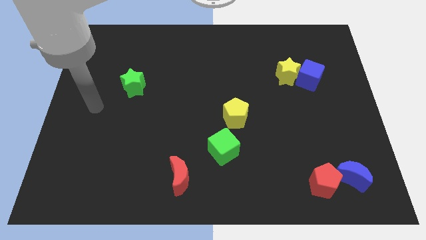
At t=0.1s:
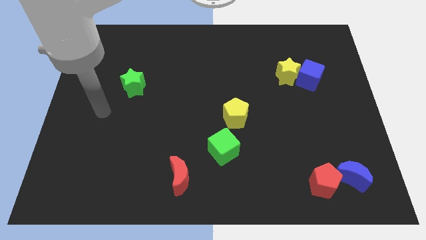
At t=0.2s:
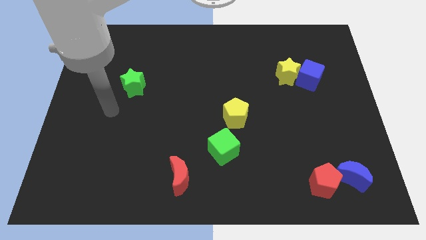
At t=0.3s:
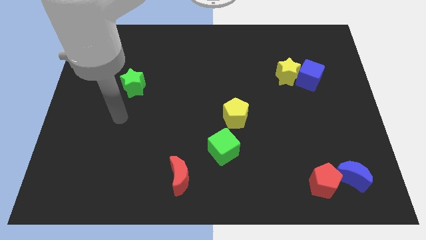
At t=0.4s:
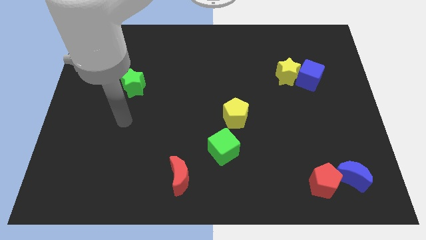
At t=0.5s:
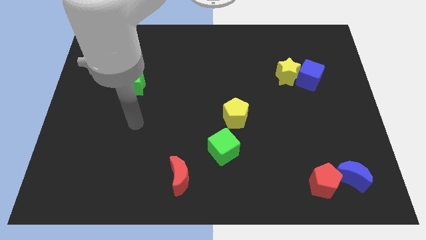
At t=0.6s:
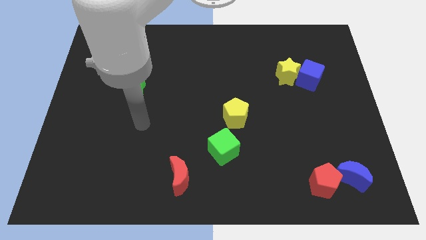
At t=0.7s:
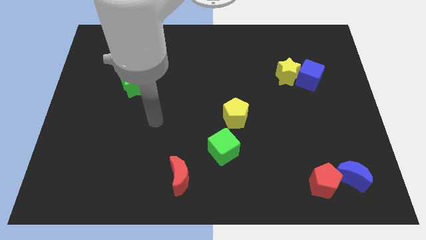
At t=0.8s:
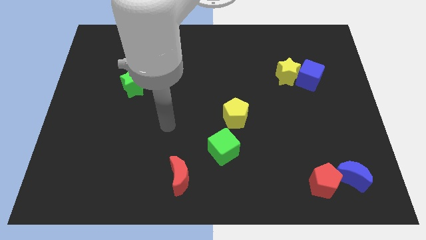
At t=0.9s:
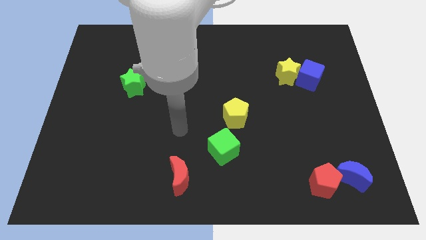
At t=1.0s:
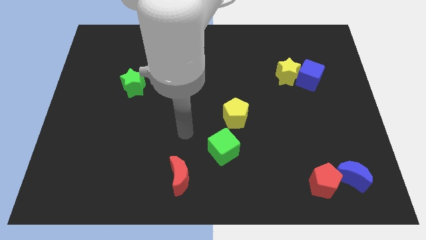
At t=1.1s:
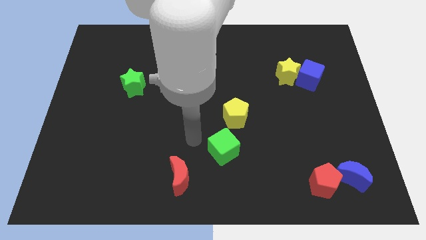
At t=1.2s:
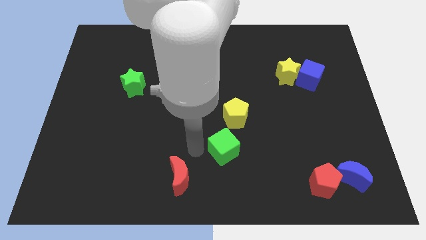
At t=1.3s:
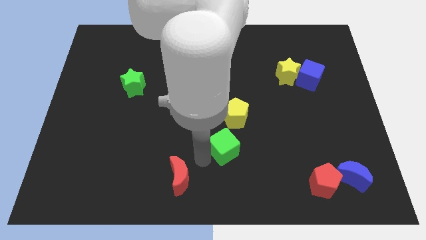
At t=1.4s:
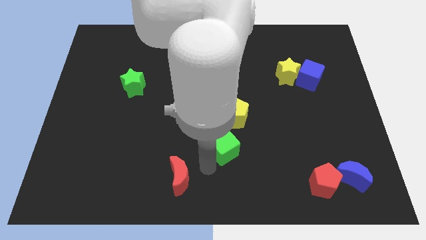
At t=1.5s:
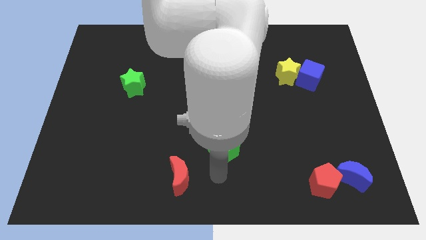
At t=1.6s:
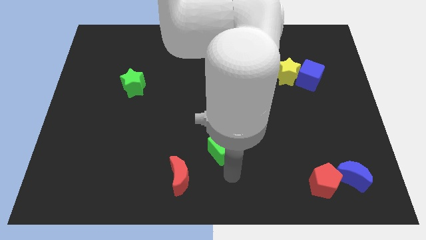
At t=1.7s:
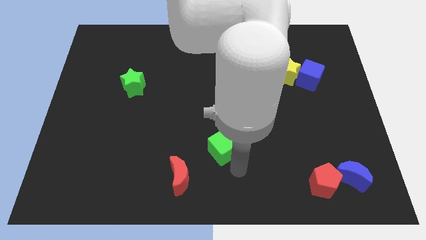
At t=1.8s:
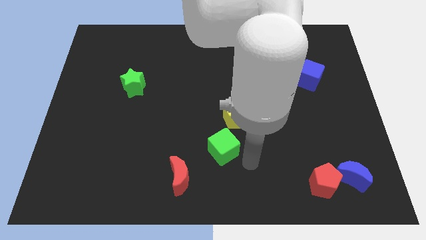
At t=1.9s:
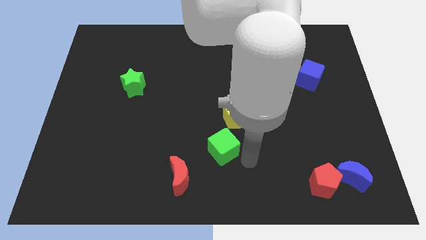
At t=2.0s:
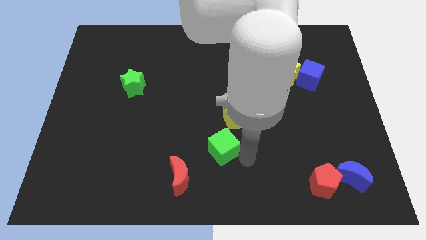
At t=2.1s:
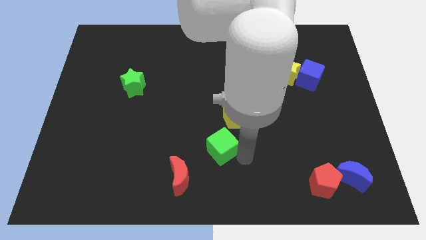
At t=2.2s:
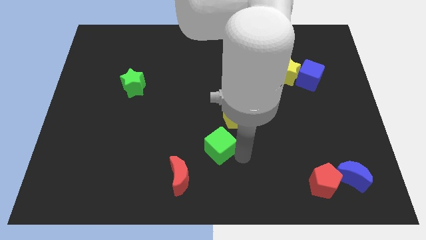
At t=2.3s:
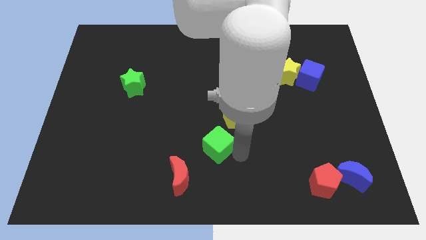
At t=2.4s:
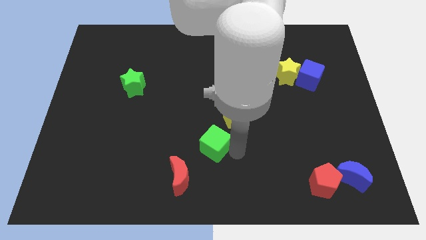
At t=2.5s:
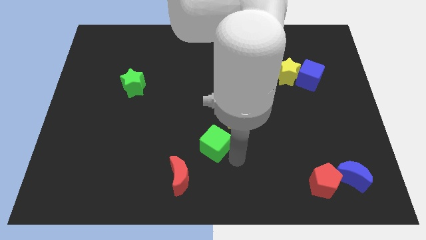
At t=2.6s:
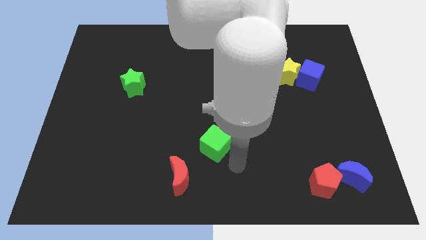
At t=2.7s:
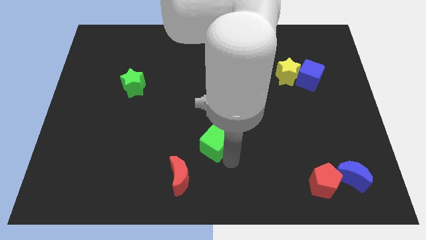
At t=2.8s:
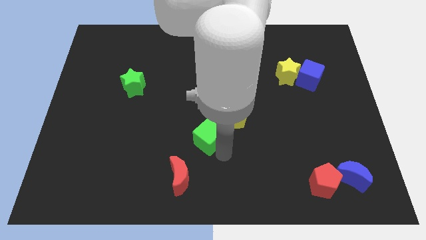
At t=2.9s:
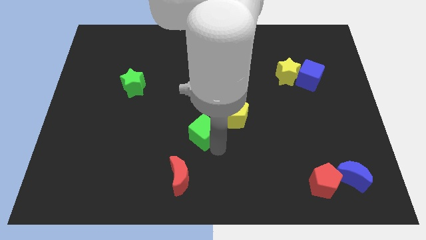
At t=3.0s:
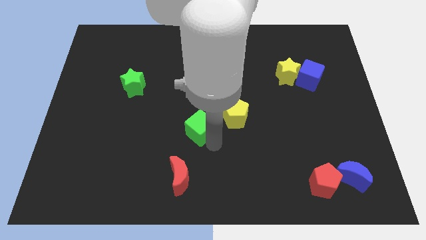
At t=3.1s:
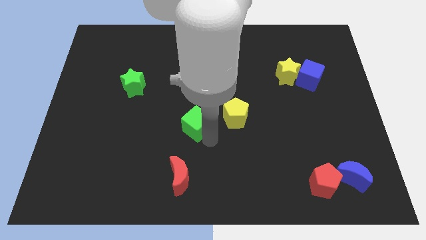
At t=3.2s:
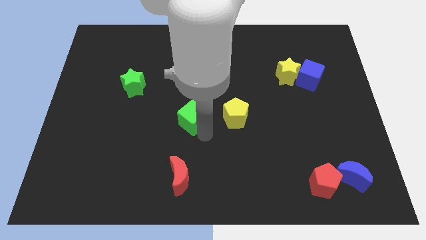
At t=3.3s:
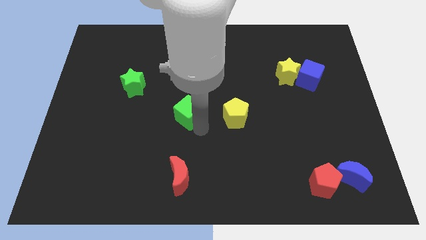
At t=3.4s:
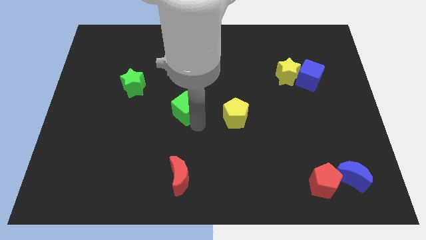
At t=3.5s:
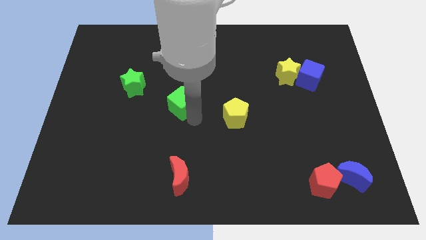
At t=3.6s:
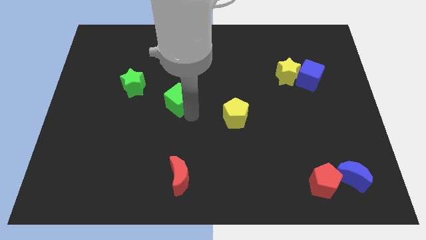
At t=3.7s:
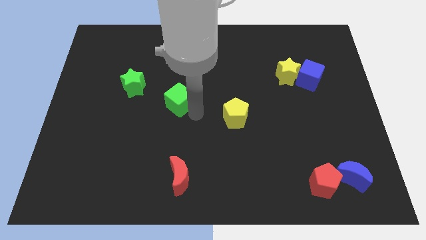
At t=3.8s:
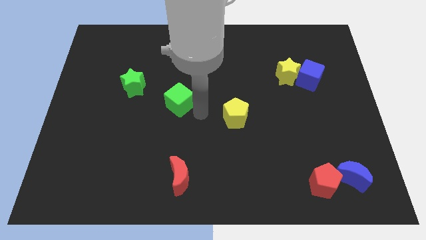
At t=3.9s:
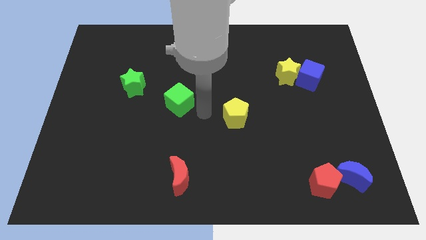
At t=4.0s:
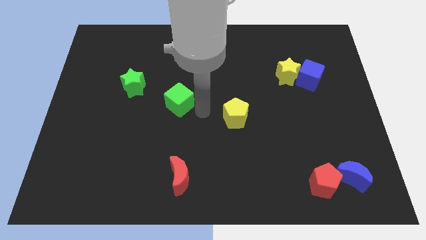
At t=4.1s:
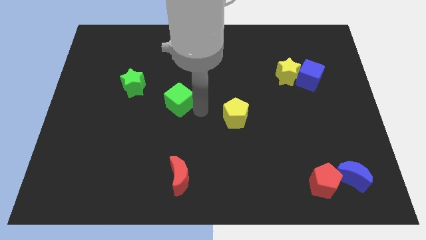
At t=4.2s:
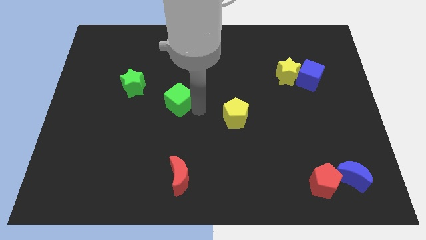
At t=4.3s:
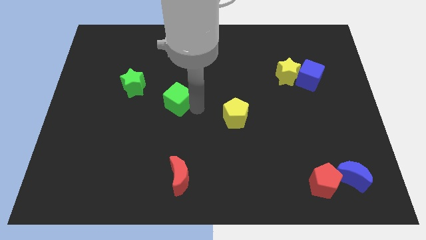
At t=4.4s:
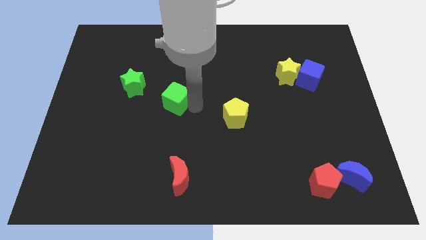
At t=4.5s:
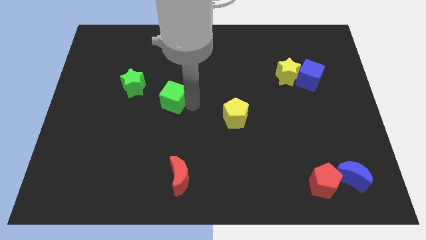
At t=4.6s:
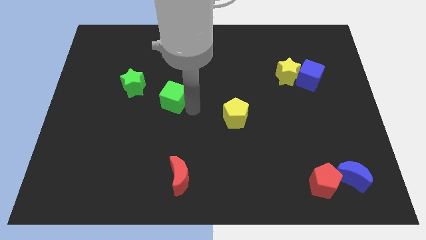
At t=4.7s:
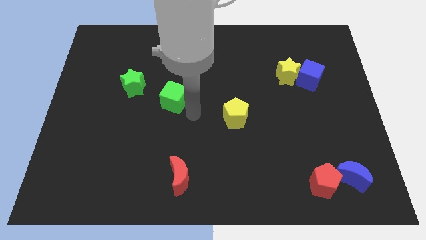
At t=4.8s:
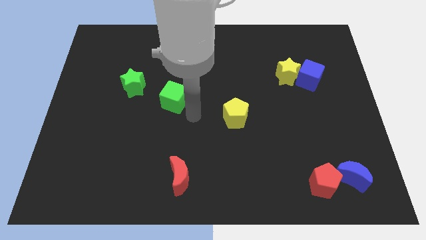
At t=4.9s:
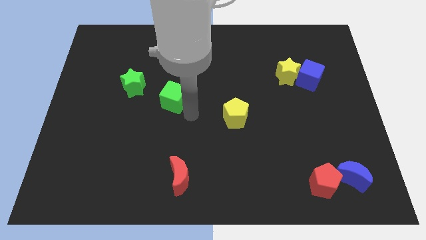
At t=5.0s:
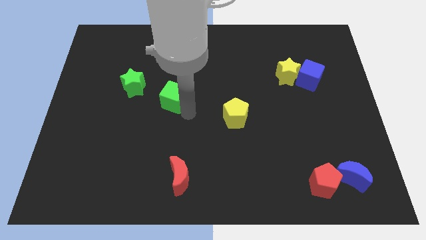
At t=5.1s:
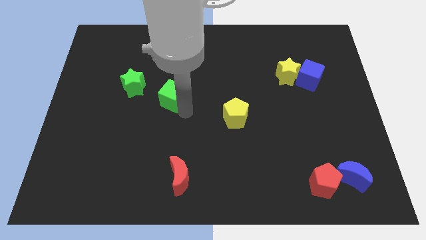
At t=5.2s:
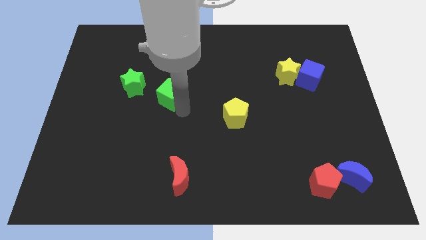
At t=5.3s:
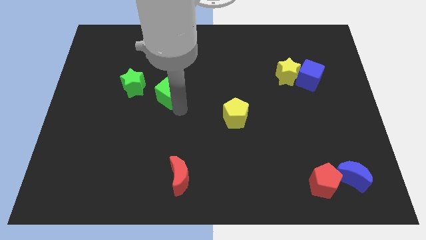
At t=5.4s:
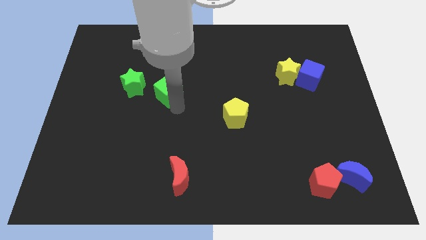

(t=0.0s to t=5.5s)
push the green cube up and left diagonally

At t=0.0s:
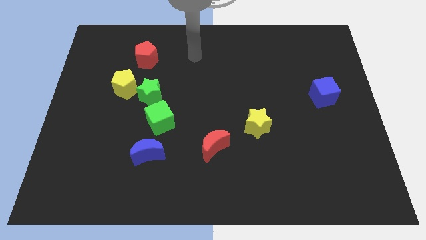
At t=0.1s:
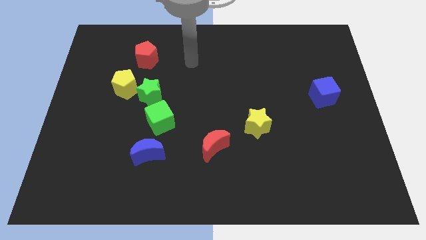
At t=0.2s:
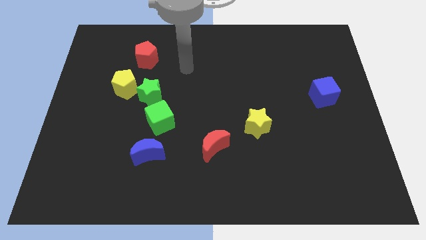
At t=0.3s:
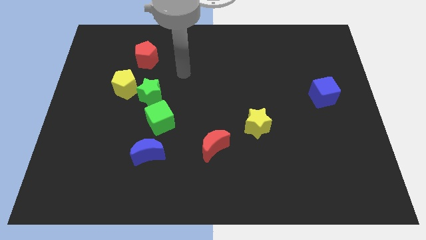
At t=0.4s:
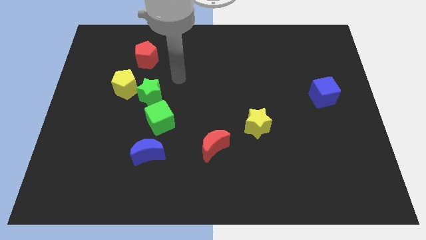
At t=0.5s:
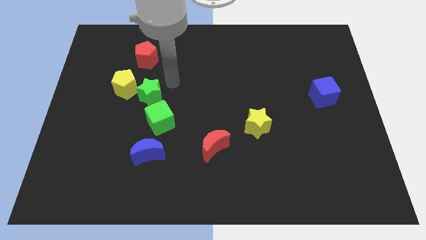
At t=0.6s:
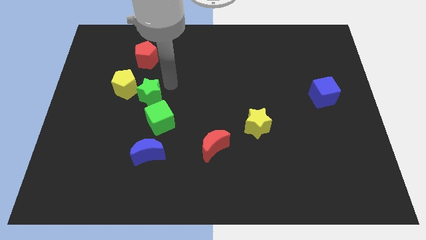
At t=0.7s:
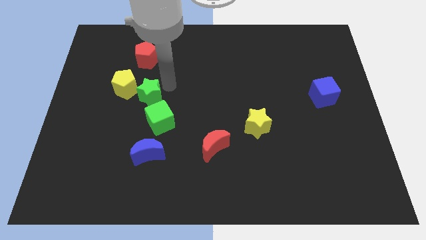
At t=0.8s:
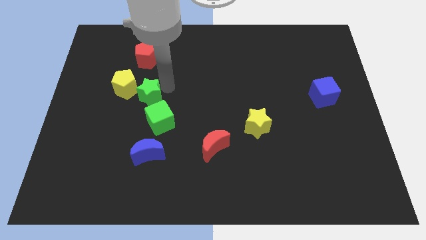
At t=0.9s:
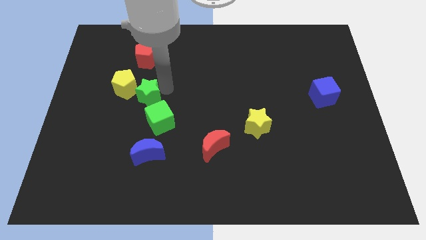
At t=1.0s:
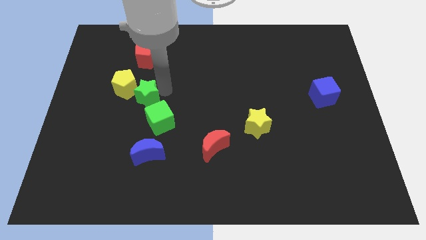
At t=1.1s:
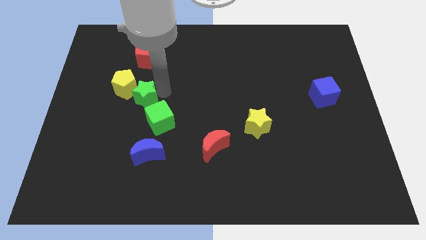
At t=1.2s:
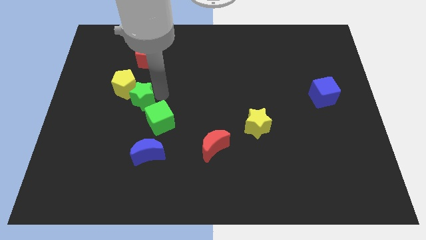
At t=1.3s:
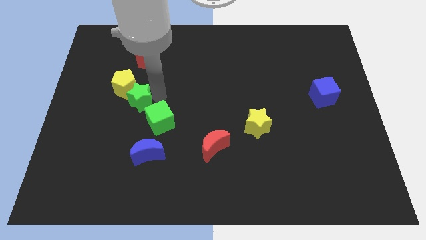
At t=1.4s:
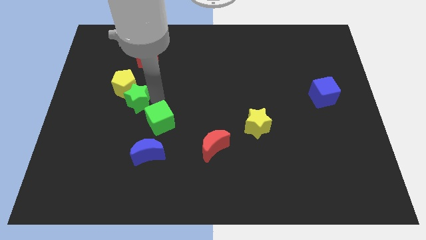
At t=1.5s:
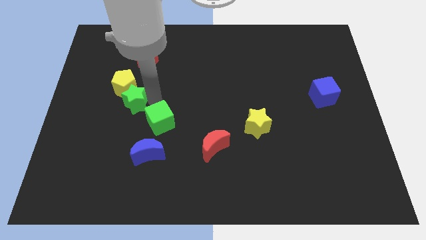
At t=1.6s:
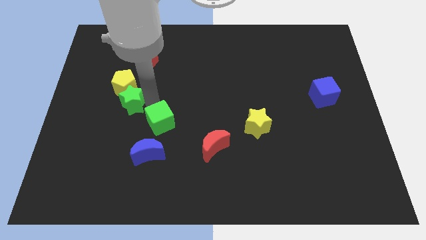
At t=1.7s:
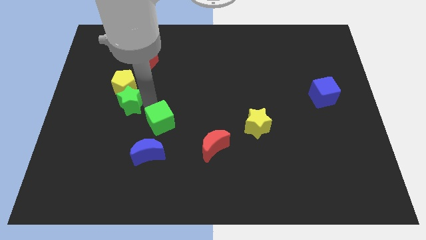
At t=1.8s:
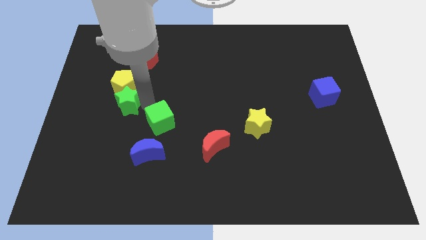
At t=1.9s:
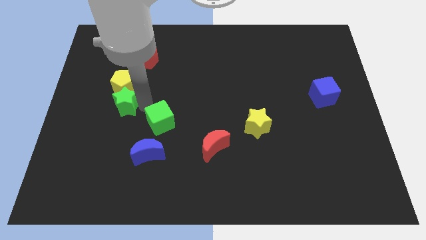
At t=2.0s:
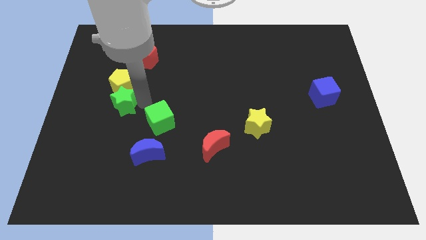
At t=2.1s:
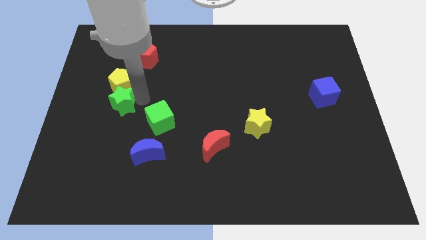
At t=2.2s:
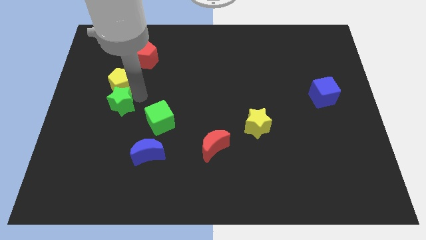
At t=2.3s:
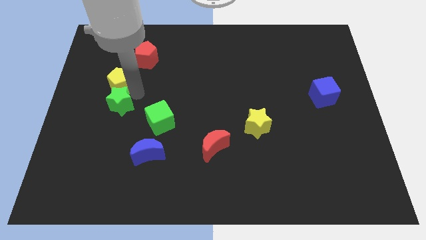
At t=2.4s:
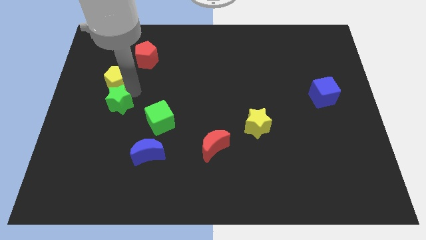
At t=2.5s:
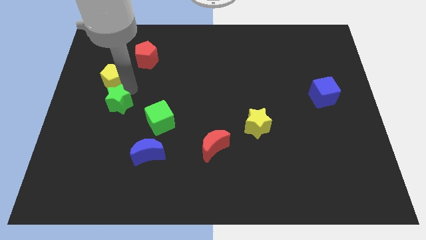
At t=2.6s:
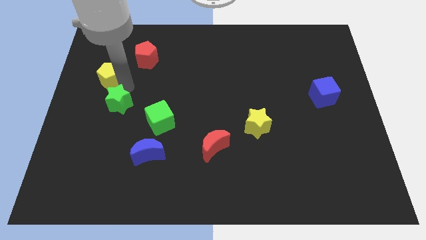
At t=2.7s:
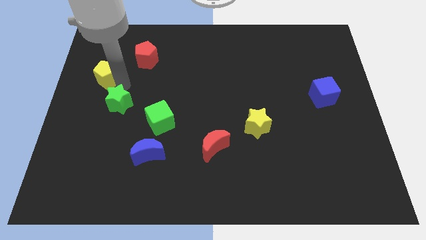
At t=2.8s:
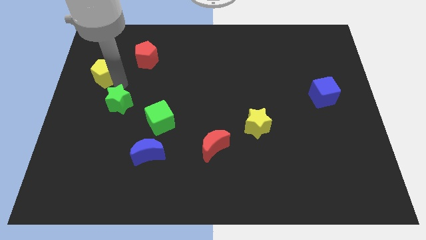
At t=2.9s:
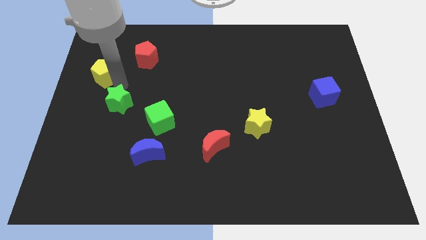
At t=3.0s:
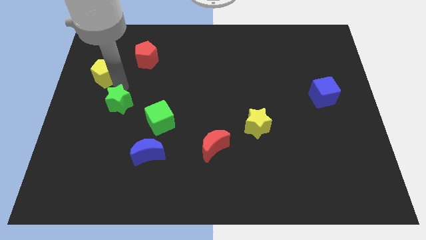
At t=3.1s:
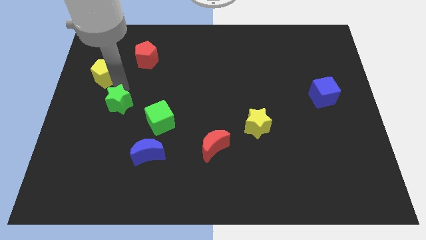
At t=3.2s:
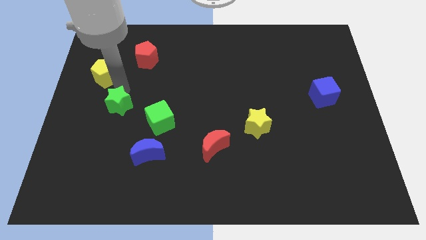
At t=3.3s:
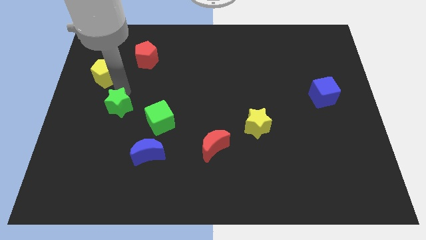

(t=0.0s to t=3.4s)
slightly slide the green star diagonally down and left
